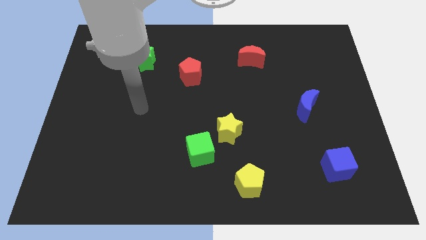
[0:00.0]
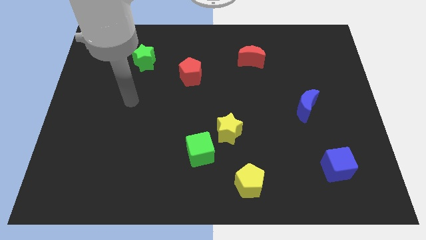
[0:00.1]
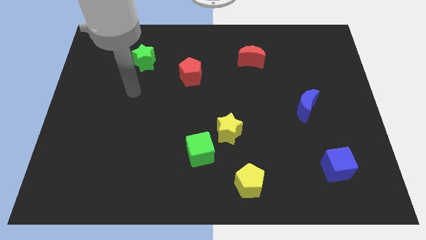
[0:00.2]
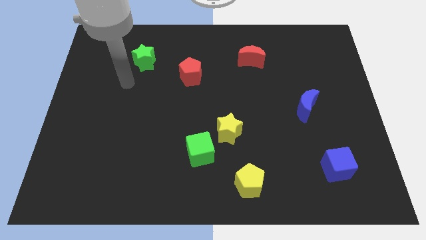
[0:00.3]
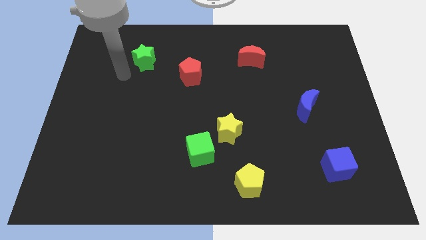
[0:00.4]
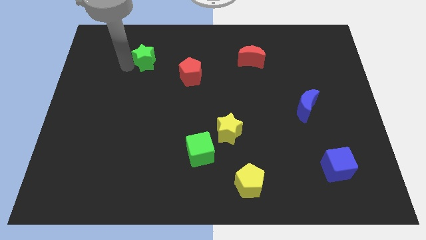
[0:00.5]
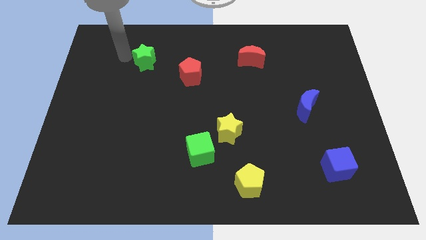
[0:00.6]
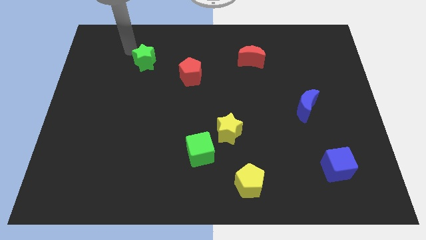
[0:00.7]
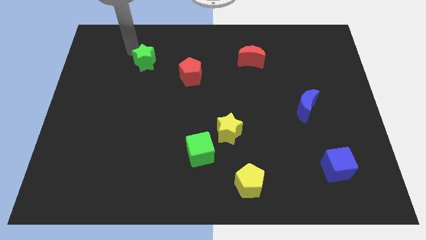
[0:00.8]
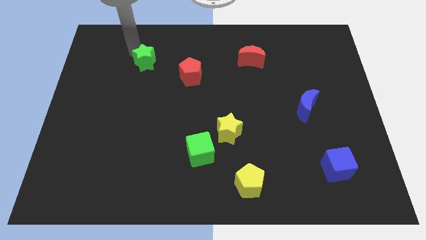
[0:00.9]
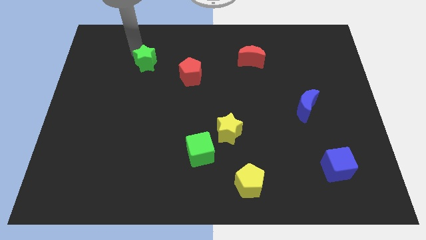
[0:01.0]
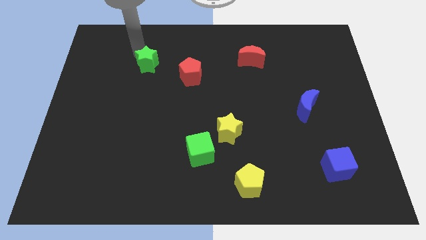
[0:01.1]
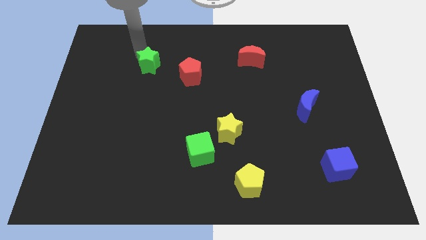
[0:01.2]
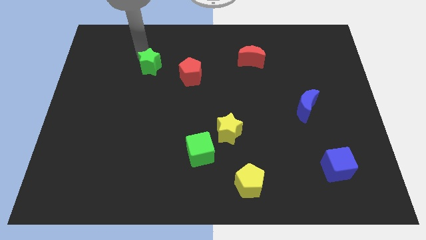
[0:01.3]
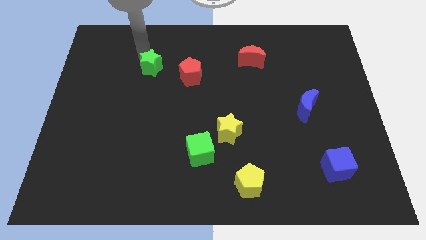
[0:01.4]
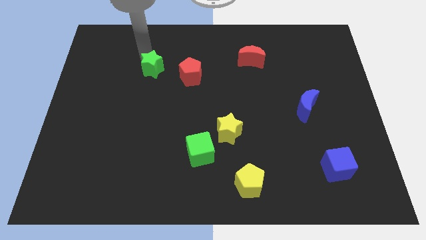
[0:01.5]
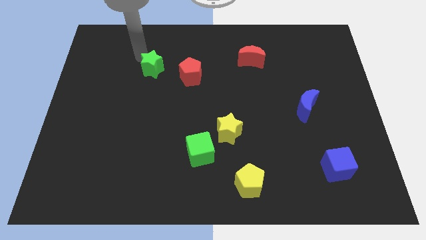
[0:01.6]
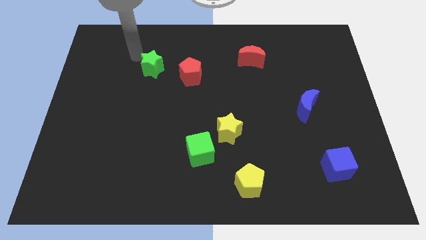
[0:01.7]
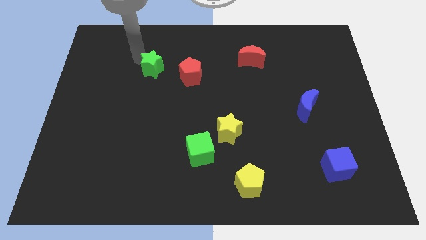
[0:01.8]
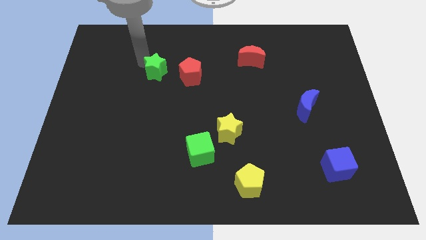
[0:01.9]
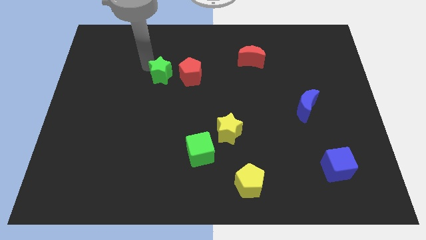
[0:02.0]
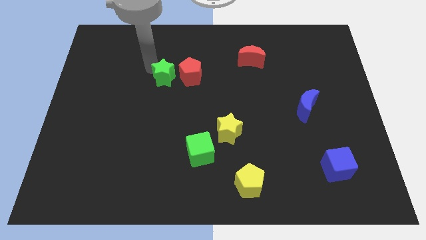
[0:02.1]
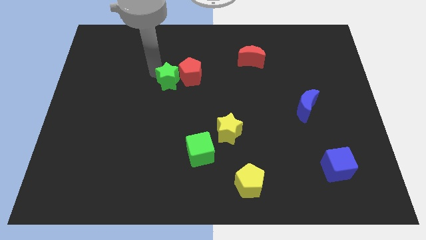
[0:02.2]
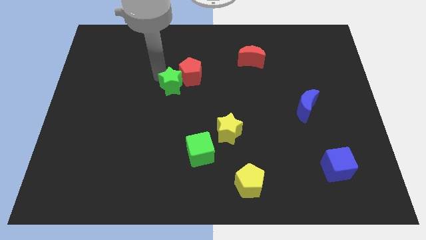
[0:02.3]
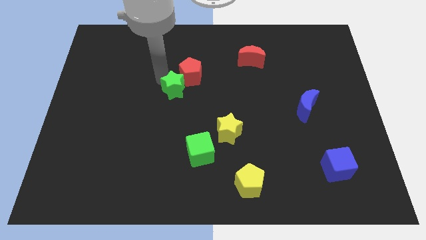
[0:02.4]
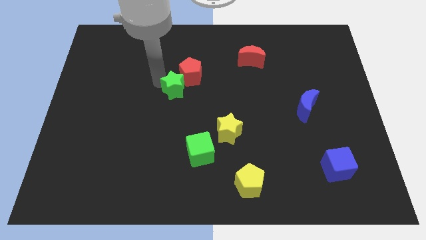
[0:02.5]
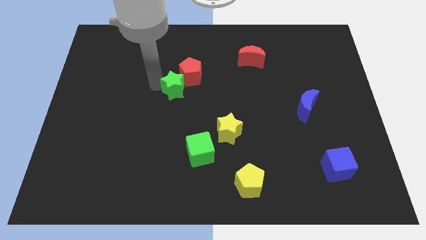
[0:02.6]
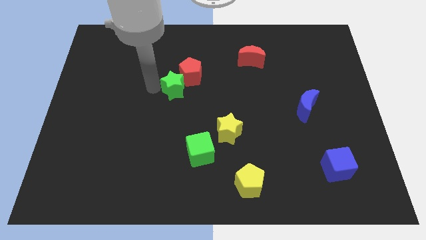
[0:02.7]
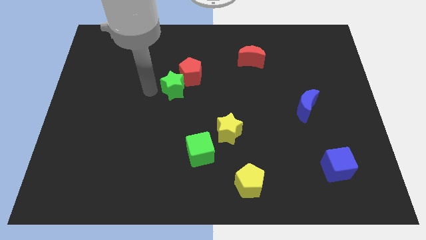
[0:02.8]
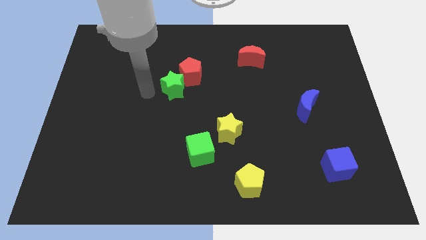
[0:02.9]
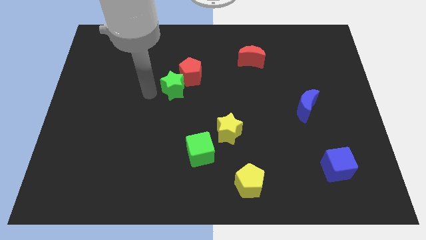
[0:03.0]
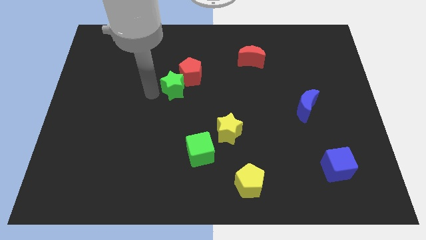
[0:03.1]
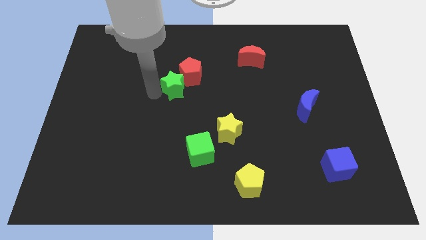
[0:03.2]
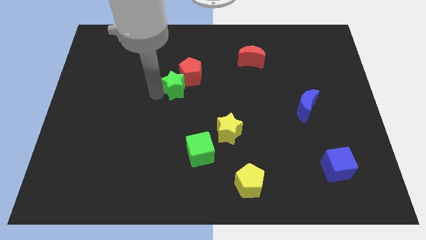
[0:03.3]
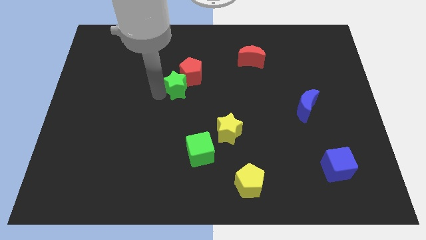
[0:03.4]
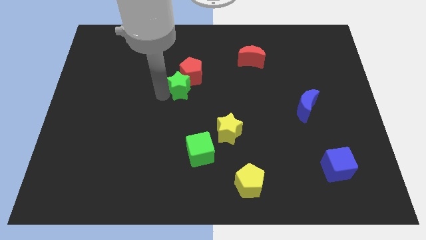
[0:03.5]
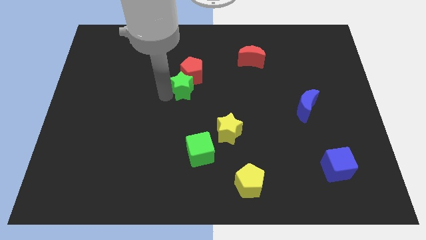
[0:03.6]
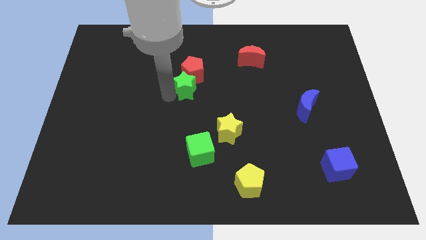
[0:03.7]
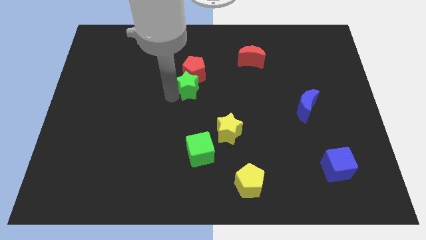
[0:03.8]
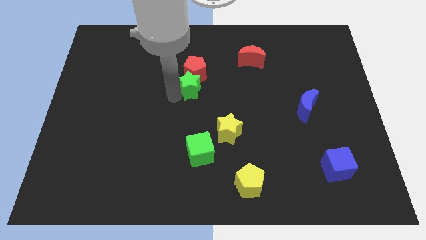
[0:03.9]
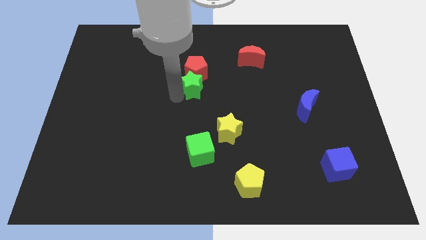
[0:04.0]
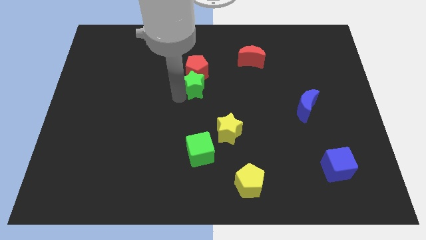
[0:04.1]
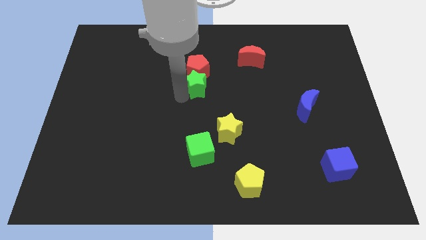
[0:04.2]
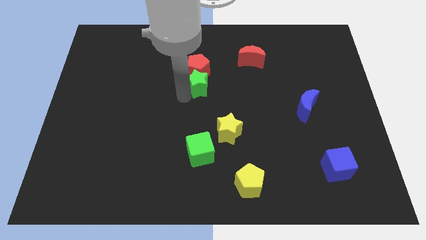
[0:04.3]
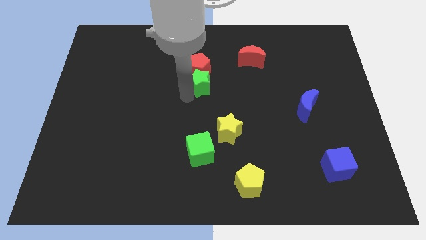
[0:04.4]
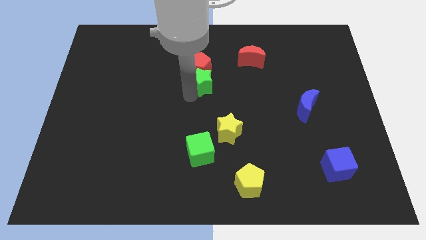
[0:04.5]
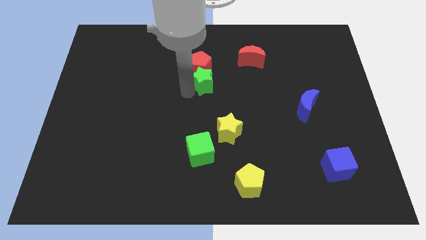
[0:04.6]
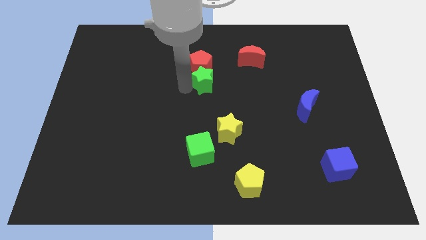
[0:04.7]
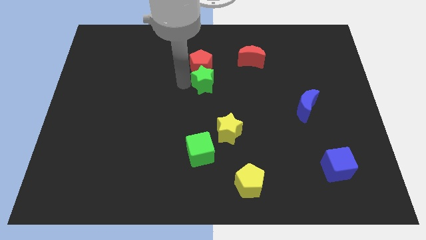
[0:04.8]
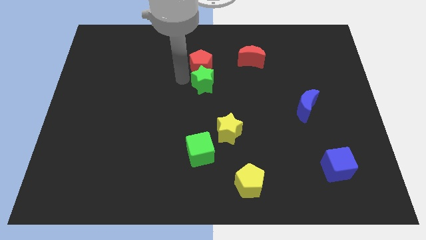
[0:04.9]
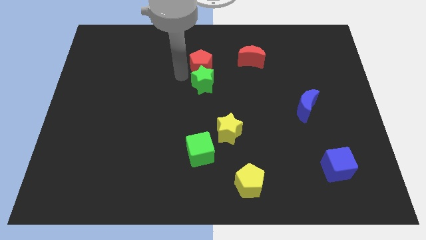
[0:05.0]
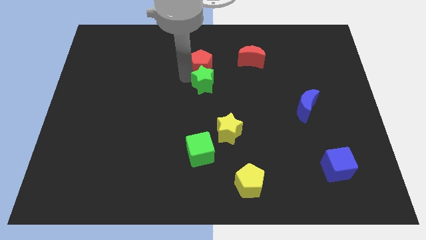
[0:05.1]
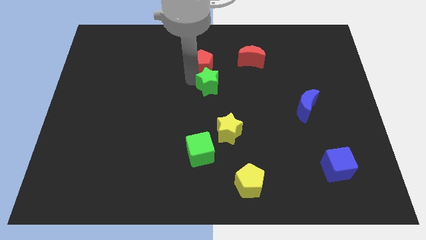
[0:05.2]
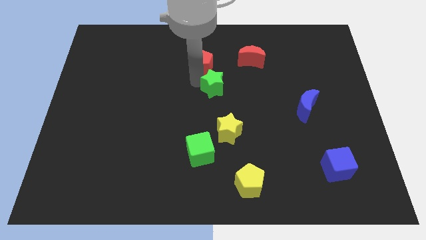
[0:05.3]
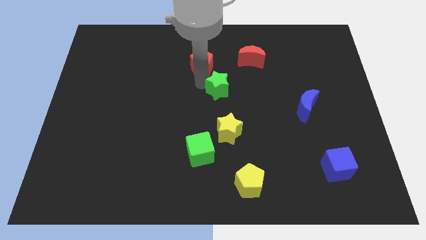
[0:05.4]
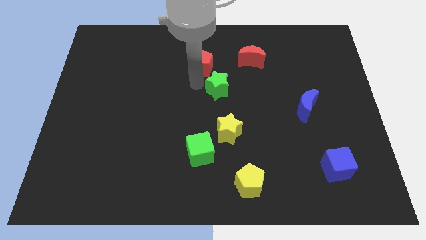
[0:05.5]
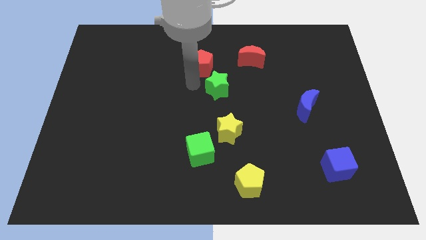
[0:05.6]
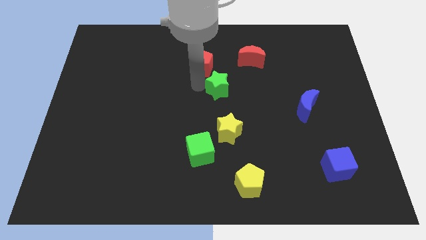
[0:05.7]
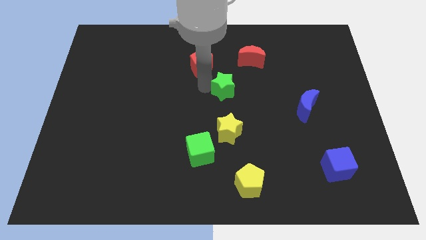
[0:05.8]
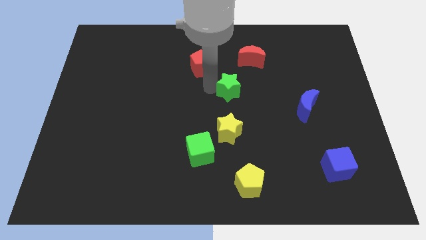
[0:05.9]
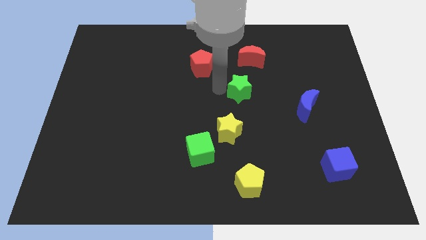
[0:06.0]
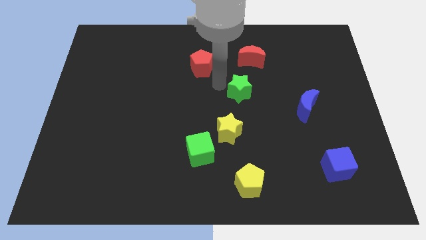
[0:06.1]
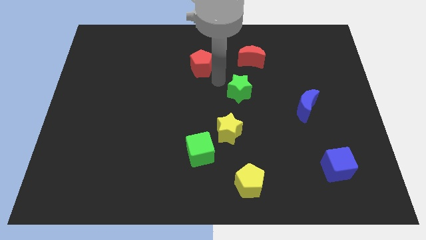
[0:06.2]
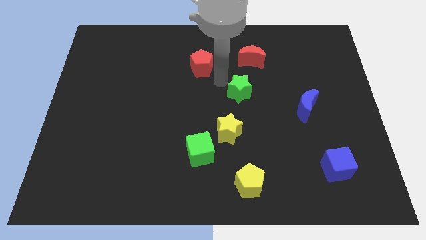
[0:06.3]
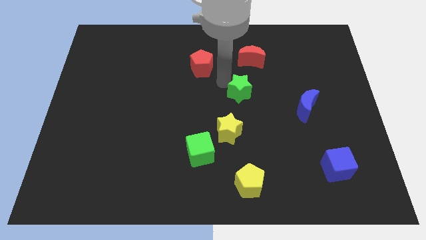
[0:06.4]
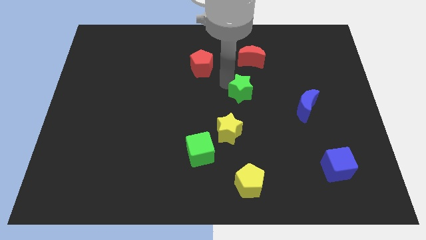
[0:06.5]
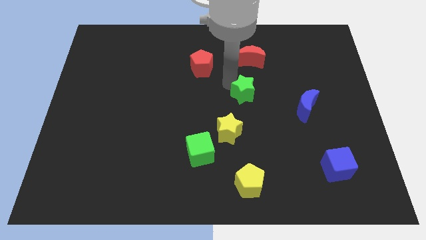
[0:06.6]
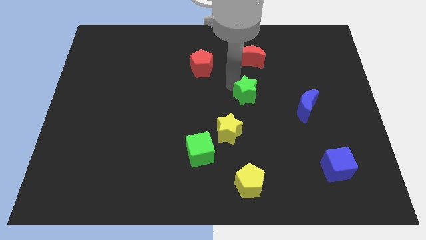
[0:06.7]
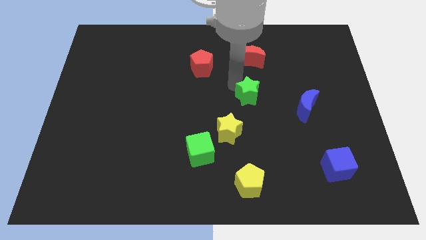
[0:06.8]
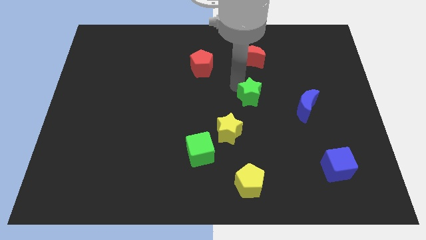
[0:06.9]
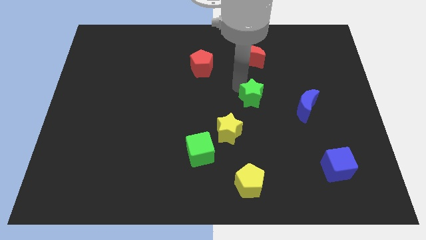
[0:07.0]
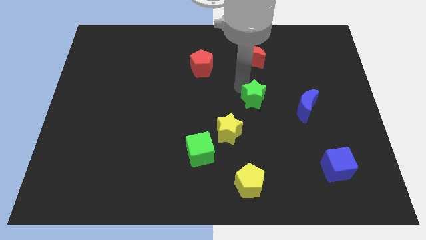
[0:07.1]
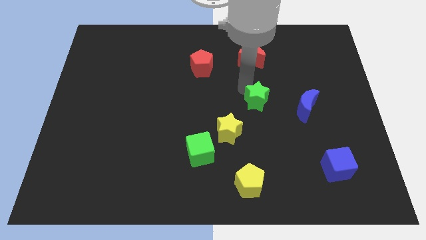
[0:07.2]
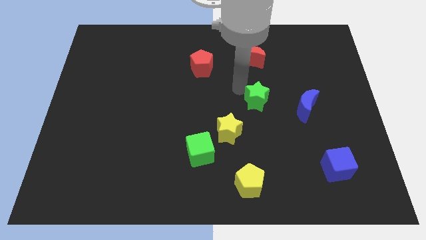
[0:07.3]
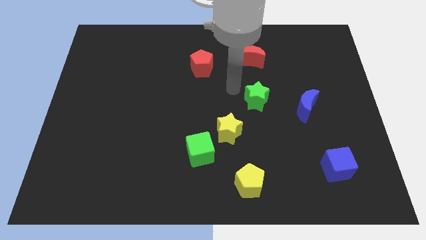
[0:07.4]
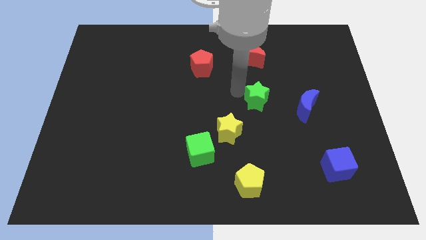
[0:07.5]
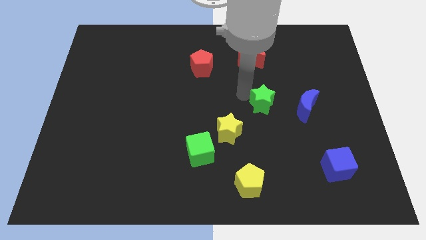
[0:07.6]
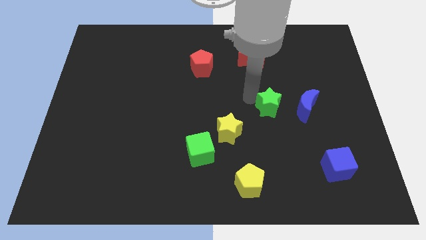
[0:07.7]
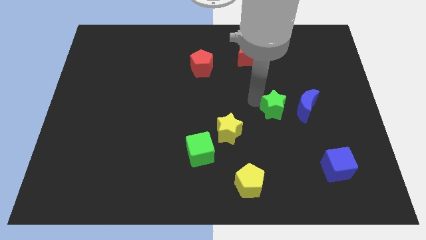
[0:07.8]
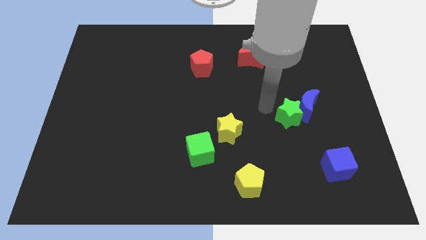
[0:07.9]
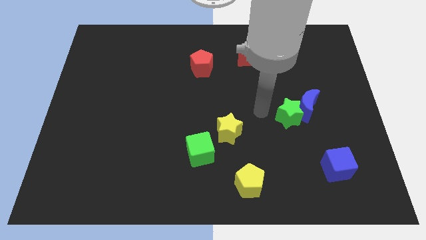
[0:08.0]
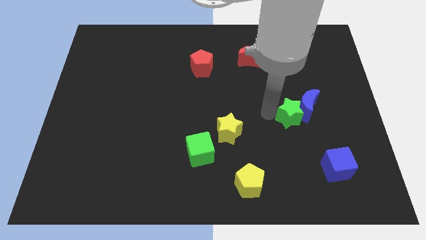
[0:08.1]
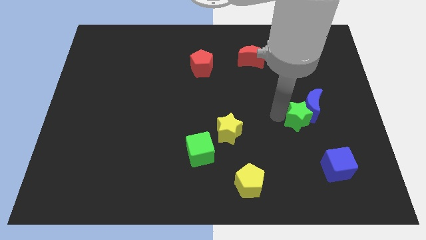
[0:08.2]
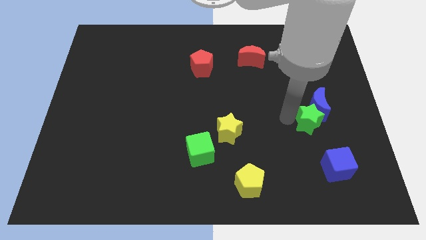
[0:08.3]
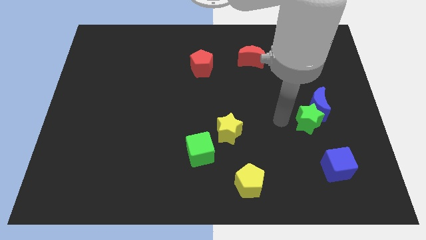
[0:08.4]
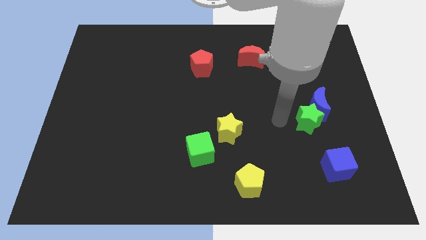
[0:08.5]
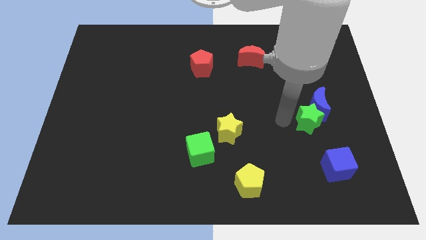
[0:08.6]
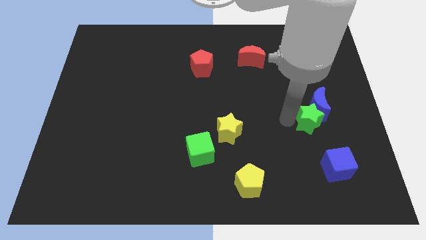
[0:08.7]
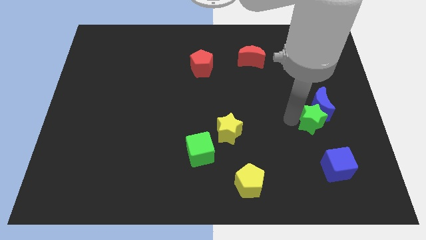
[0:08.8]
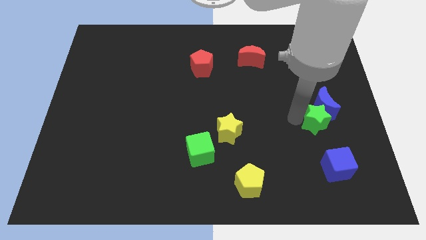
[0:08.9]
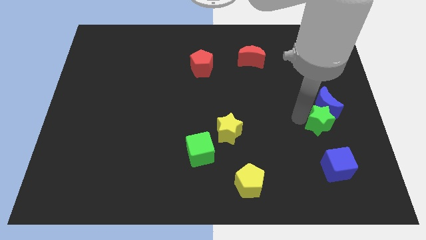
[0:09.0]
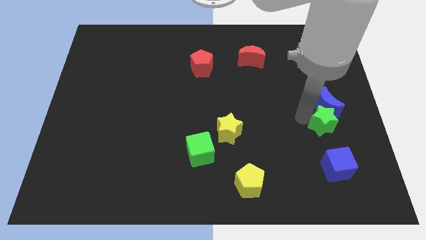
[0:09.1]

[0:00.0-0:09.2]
slide the green star diagonally down and to the right of the blue moon
